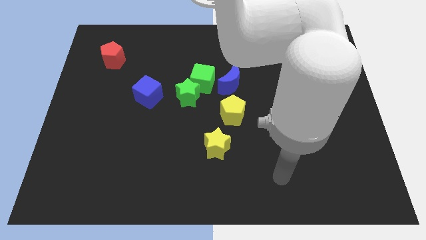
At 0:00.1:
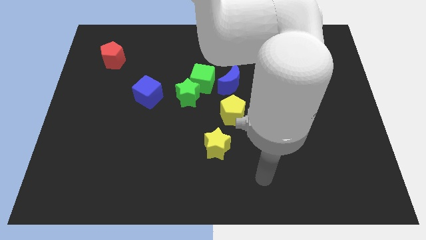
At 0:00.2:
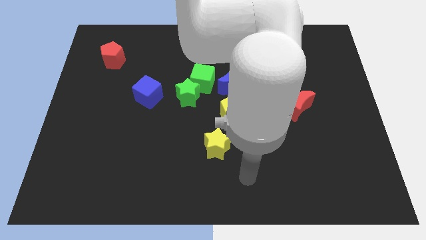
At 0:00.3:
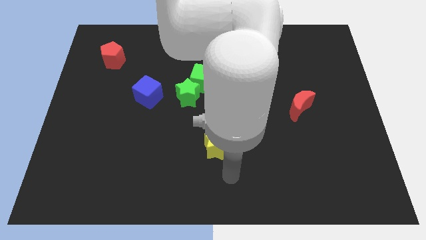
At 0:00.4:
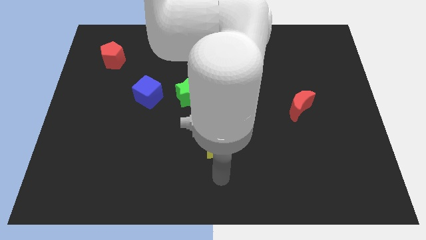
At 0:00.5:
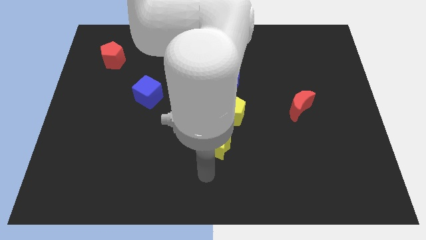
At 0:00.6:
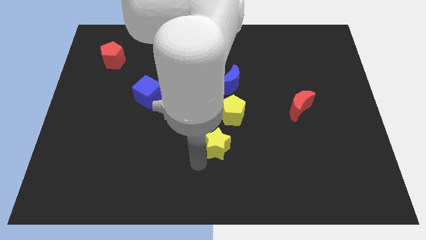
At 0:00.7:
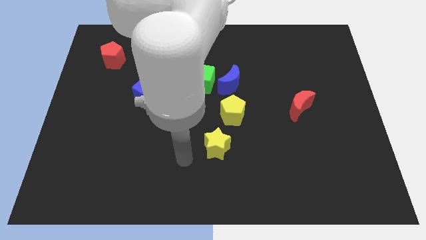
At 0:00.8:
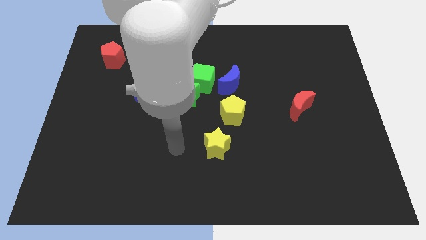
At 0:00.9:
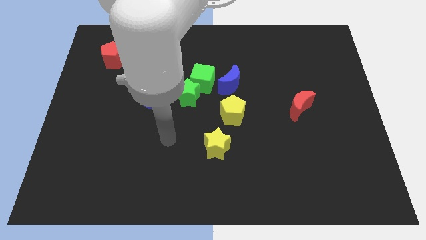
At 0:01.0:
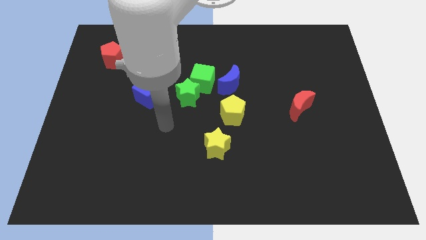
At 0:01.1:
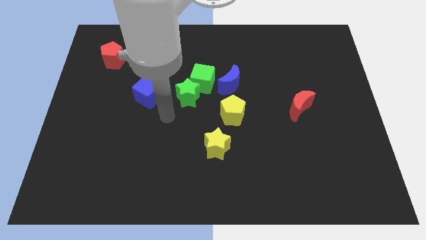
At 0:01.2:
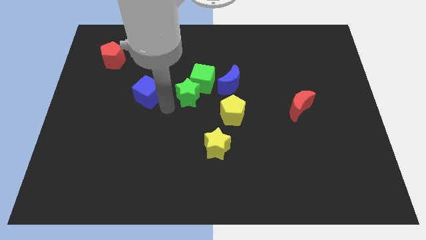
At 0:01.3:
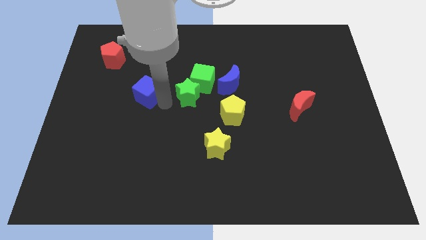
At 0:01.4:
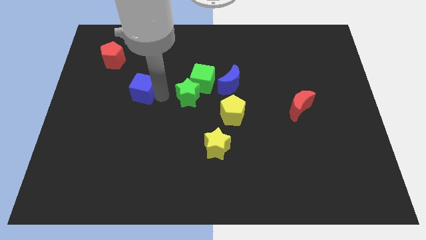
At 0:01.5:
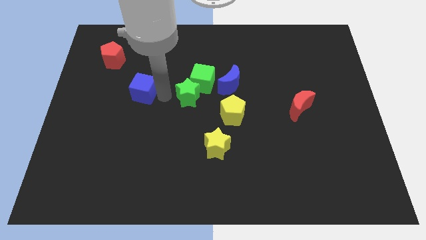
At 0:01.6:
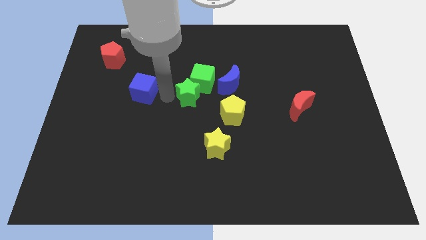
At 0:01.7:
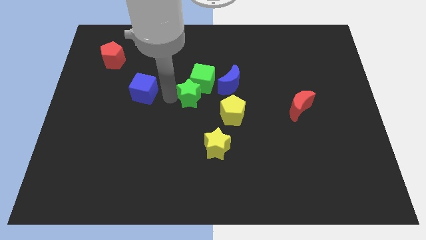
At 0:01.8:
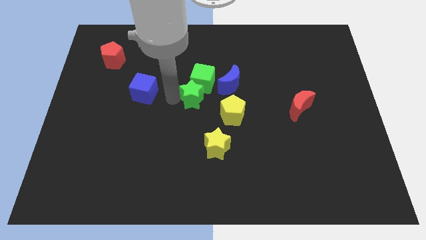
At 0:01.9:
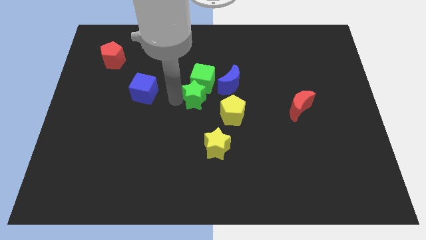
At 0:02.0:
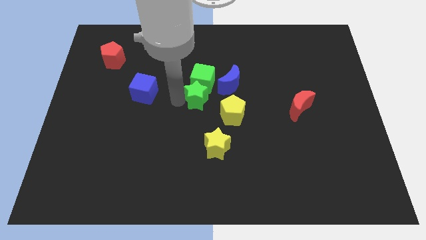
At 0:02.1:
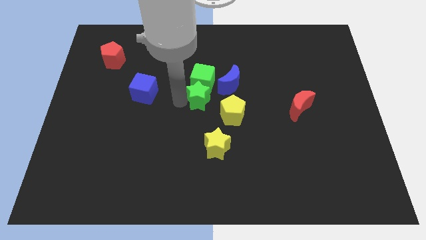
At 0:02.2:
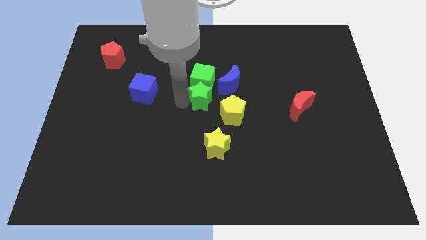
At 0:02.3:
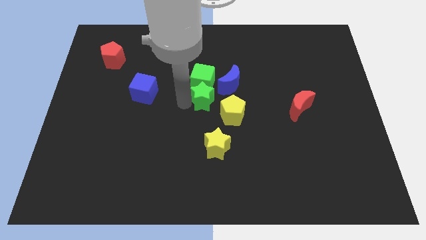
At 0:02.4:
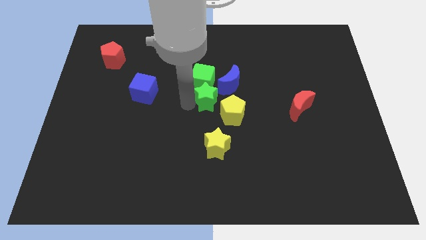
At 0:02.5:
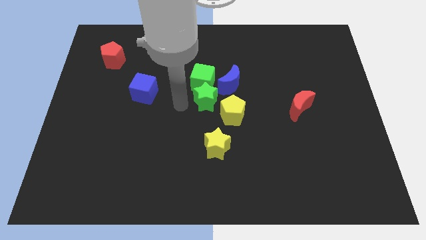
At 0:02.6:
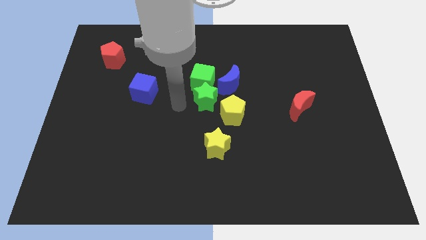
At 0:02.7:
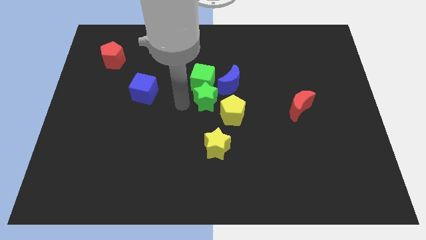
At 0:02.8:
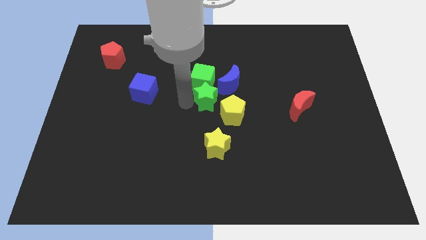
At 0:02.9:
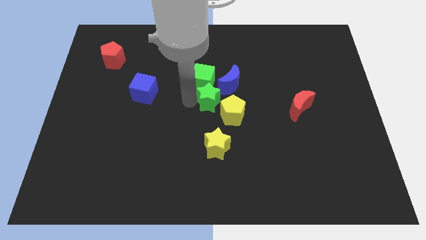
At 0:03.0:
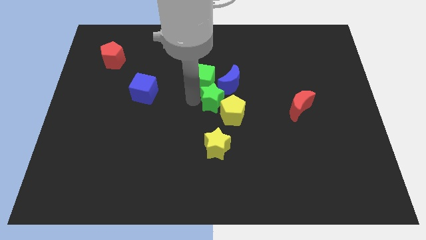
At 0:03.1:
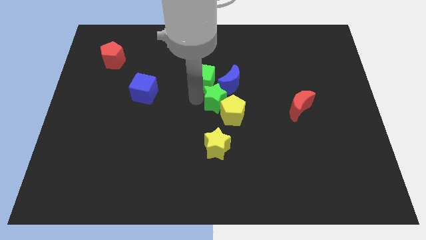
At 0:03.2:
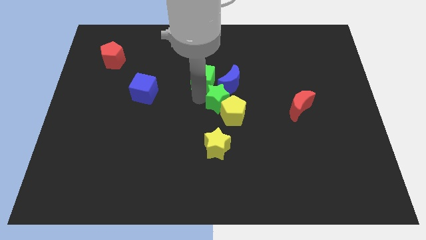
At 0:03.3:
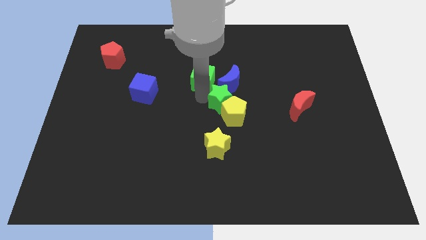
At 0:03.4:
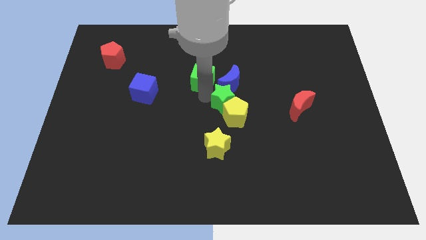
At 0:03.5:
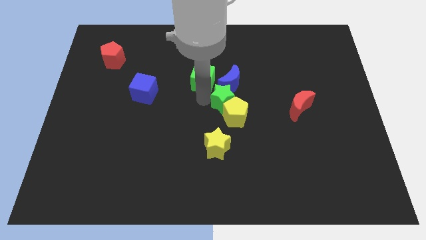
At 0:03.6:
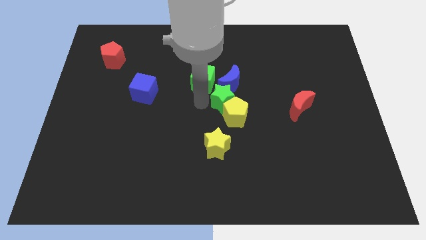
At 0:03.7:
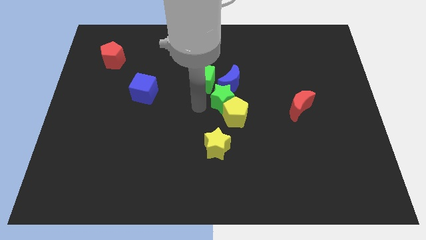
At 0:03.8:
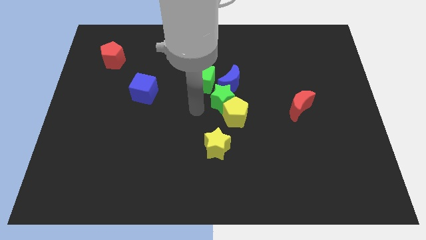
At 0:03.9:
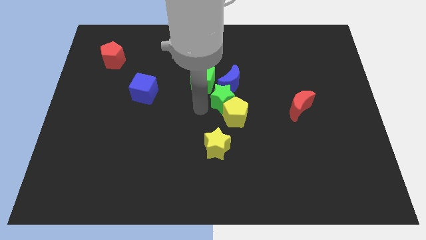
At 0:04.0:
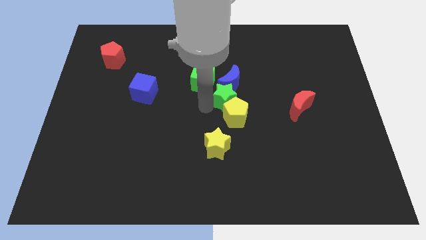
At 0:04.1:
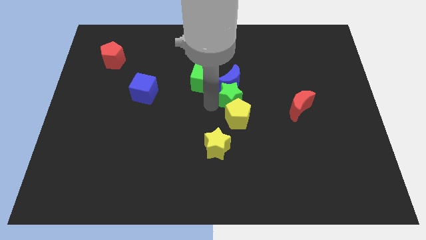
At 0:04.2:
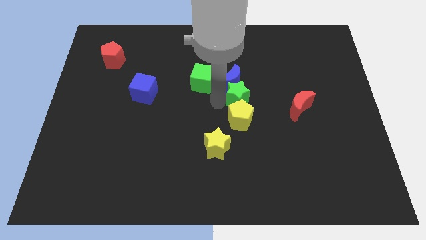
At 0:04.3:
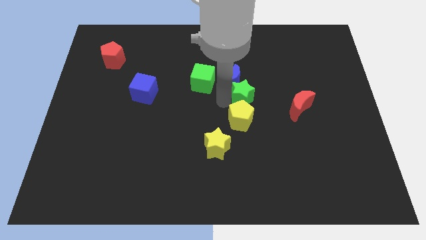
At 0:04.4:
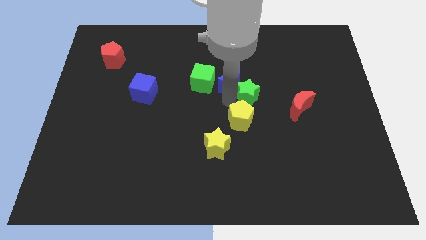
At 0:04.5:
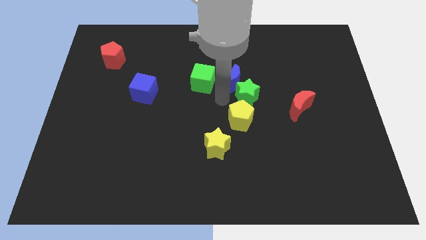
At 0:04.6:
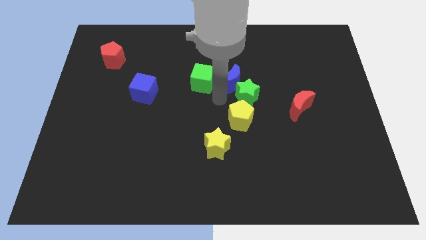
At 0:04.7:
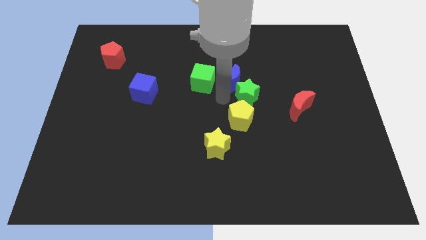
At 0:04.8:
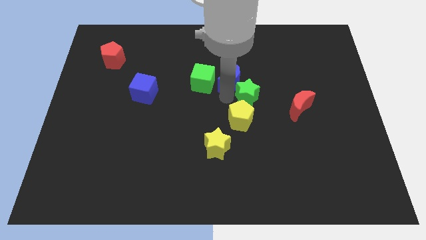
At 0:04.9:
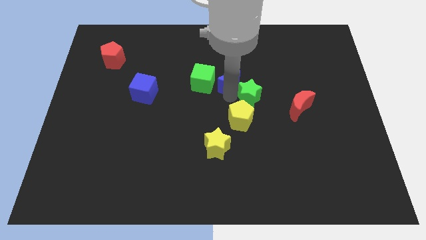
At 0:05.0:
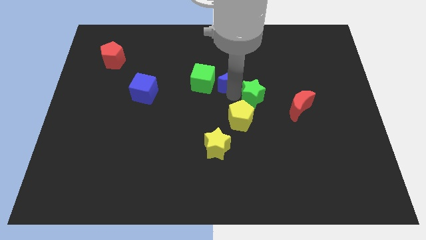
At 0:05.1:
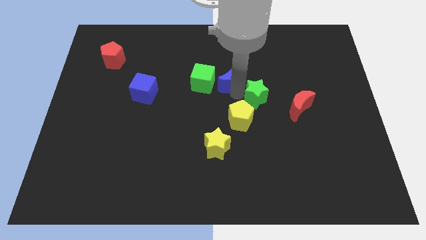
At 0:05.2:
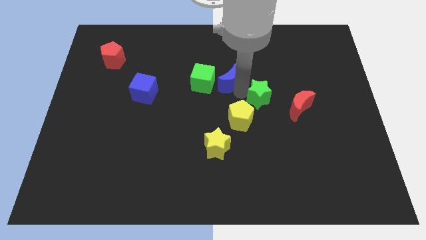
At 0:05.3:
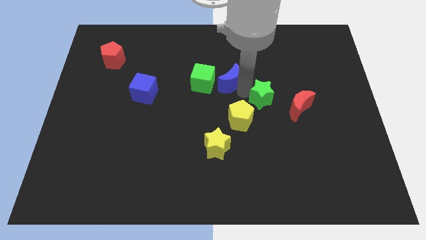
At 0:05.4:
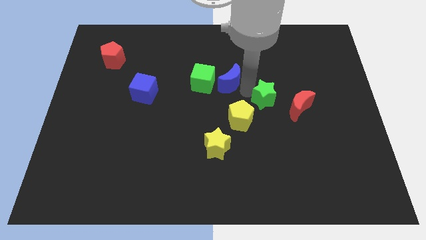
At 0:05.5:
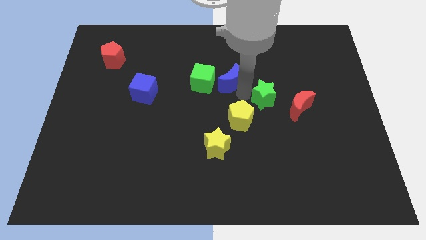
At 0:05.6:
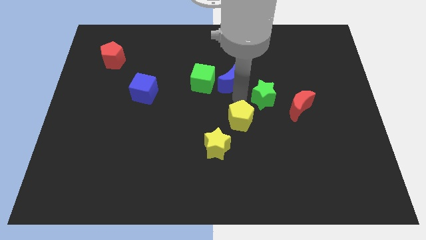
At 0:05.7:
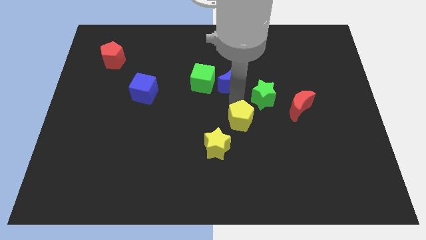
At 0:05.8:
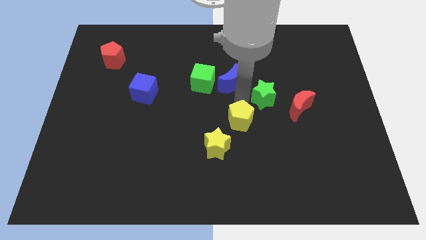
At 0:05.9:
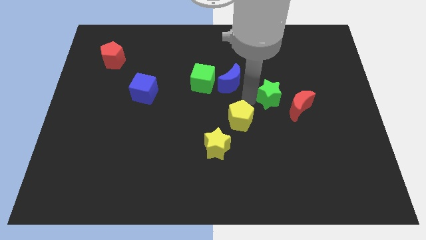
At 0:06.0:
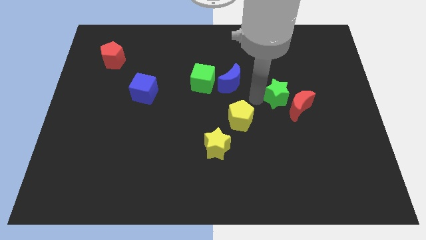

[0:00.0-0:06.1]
move the green star to the right

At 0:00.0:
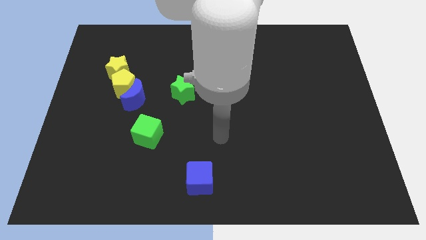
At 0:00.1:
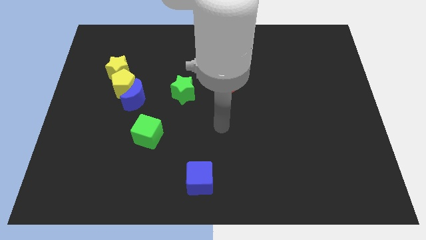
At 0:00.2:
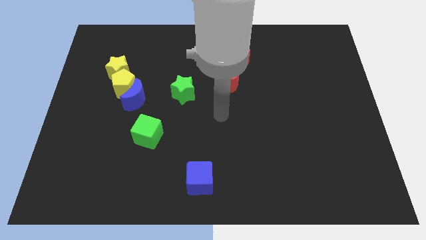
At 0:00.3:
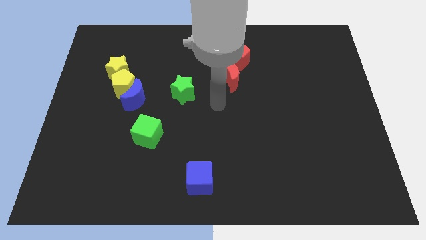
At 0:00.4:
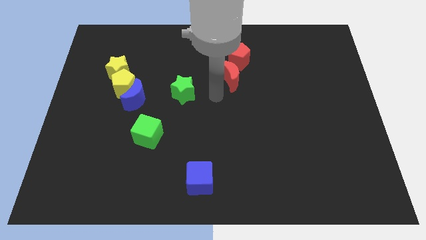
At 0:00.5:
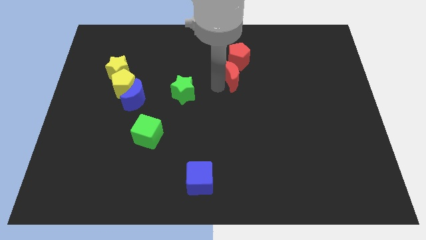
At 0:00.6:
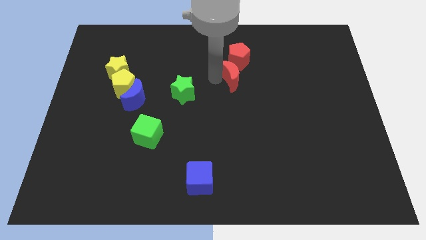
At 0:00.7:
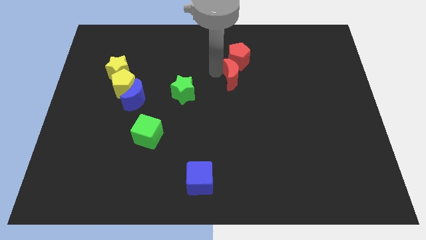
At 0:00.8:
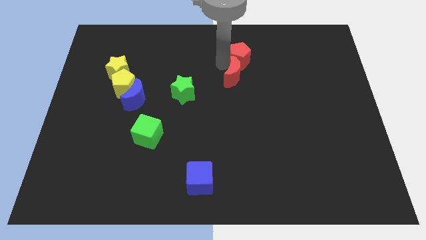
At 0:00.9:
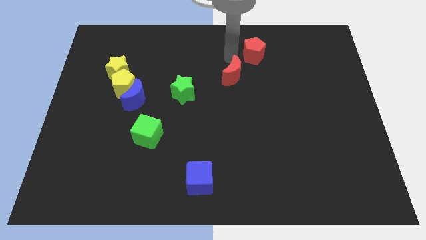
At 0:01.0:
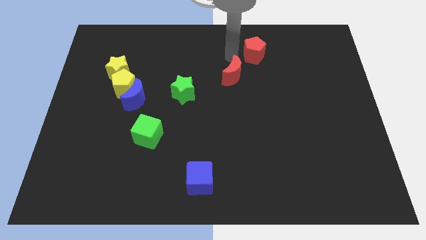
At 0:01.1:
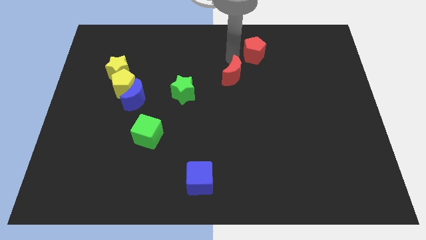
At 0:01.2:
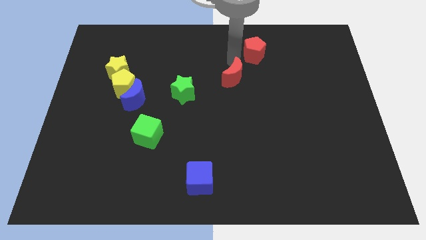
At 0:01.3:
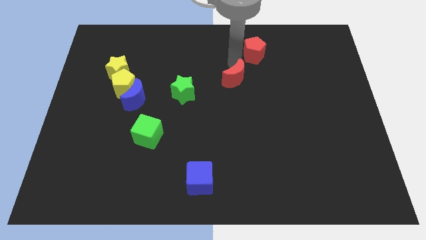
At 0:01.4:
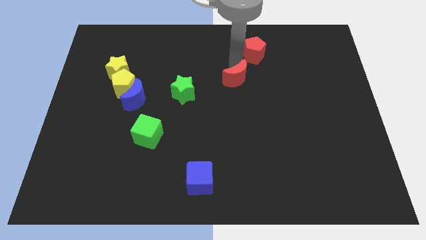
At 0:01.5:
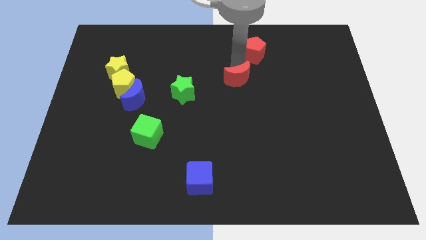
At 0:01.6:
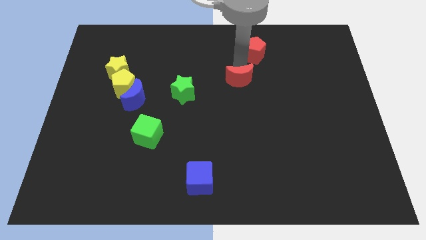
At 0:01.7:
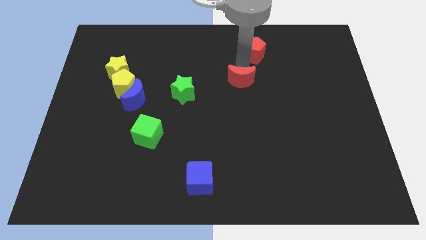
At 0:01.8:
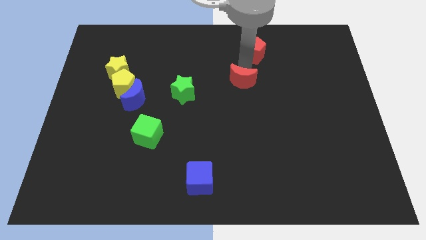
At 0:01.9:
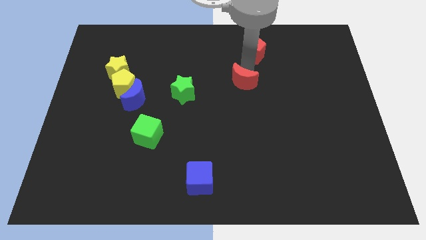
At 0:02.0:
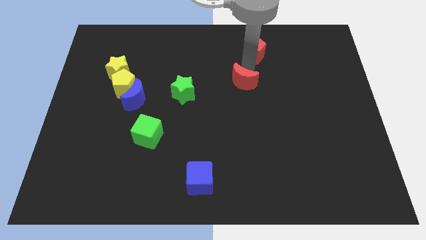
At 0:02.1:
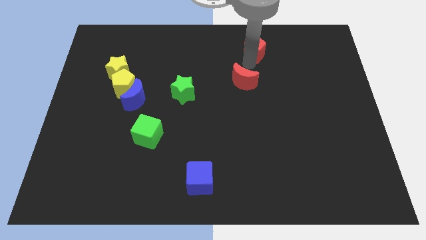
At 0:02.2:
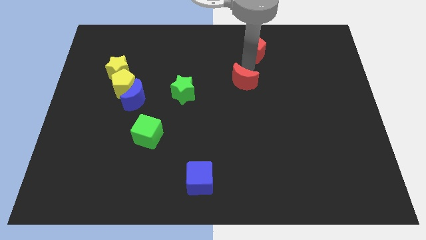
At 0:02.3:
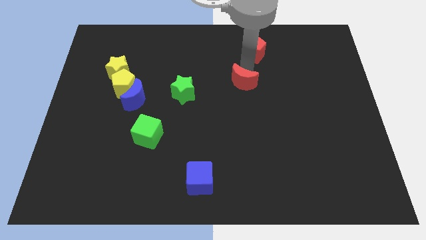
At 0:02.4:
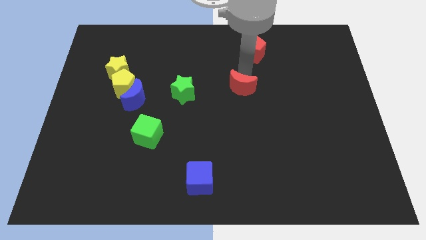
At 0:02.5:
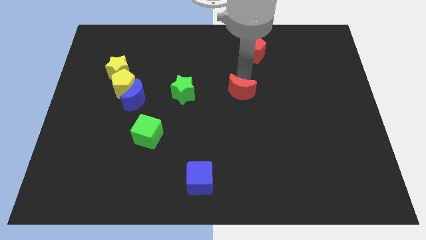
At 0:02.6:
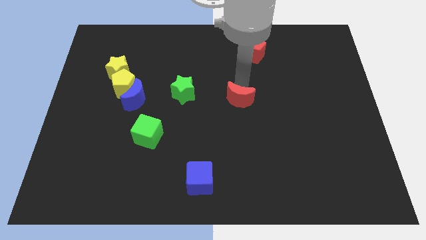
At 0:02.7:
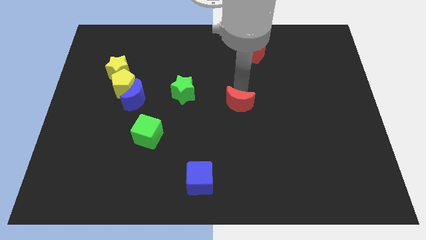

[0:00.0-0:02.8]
move the red moon a little bit down

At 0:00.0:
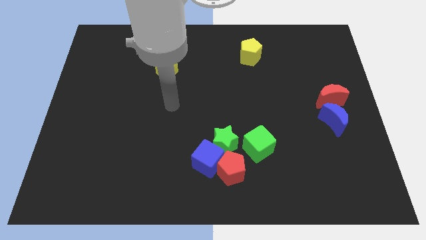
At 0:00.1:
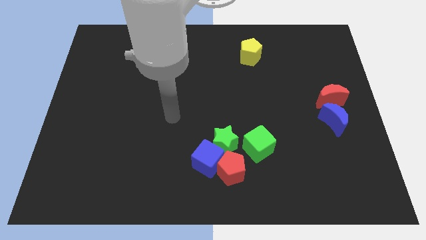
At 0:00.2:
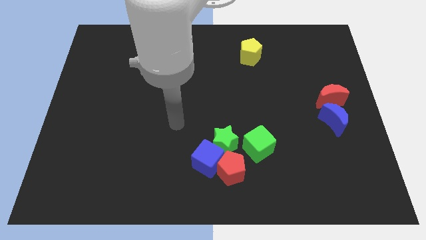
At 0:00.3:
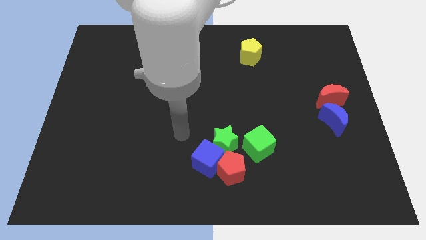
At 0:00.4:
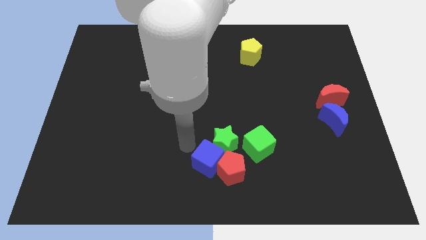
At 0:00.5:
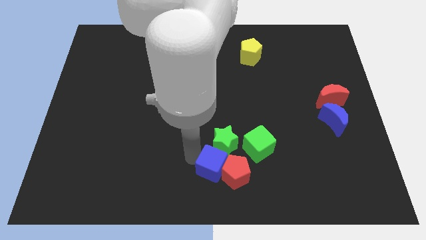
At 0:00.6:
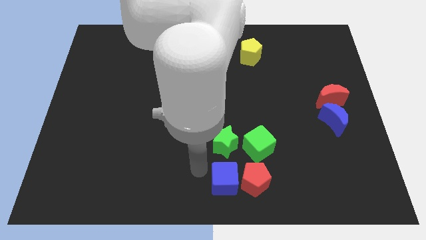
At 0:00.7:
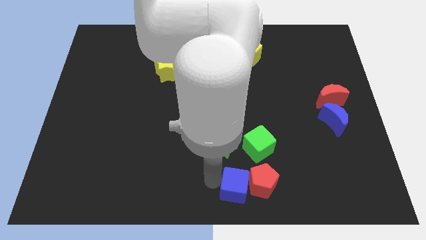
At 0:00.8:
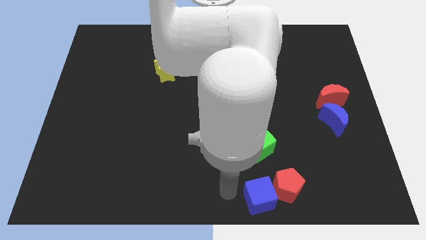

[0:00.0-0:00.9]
move the red pentagon a little bit right
